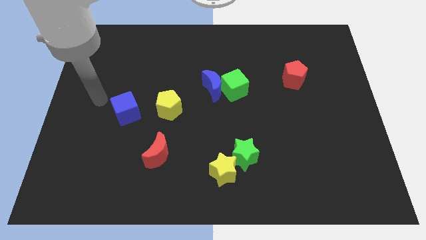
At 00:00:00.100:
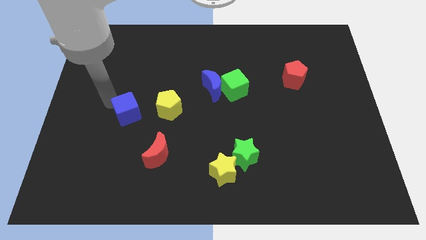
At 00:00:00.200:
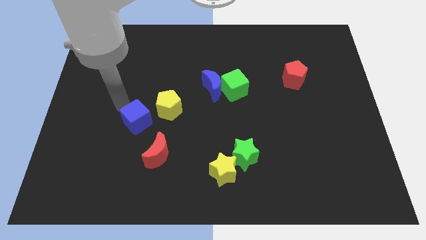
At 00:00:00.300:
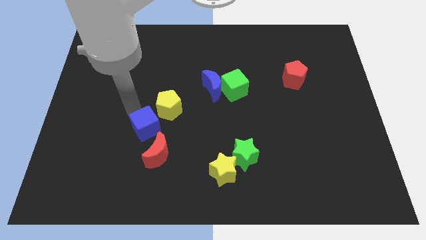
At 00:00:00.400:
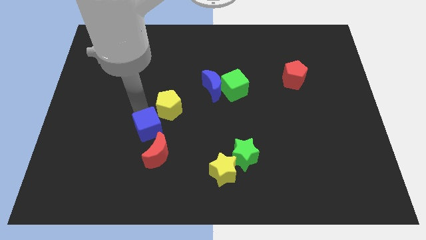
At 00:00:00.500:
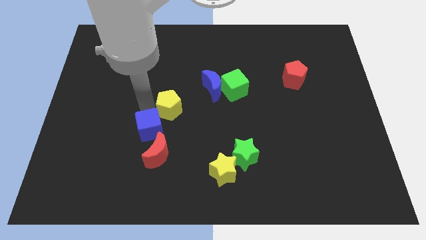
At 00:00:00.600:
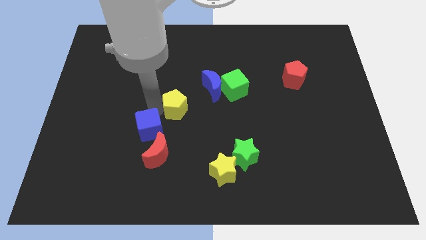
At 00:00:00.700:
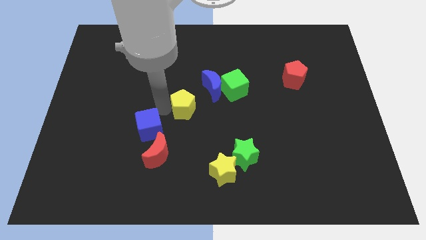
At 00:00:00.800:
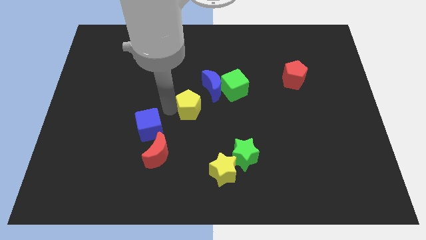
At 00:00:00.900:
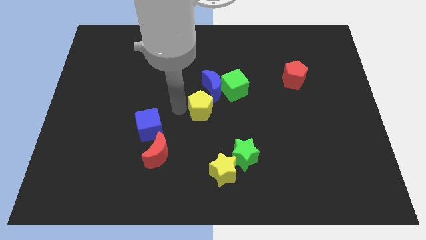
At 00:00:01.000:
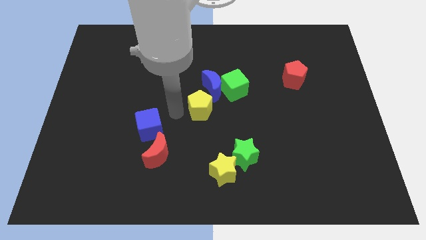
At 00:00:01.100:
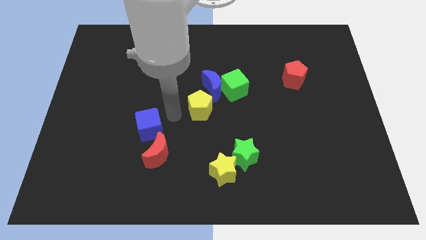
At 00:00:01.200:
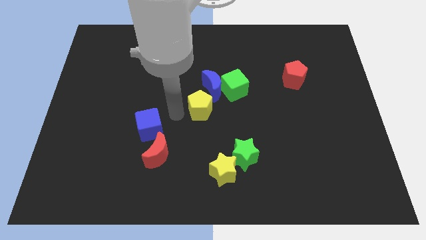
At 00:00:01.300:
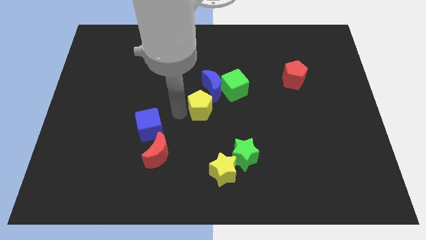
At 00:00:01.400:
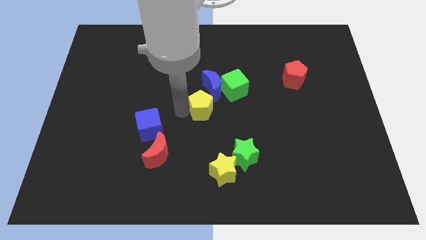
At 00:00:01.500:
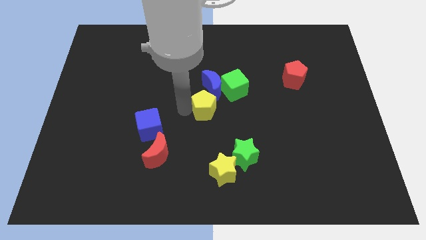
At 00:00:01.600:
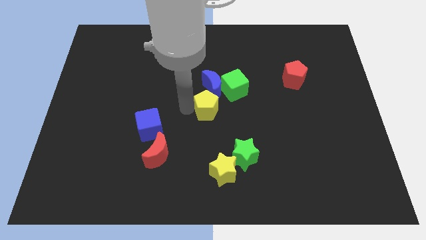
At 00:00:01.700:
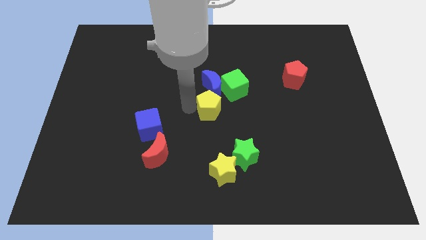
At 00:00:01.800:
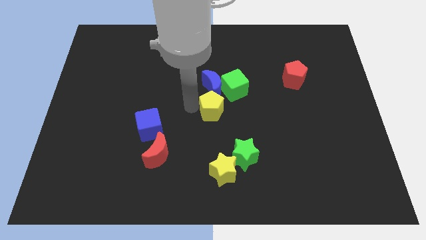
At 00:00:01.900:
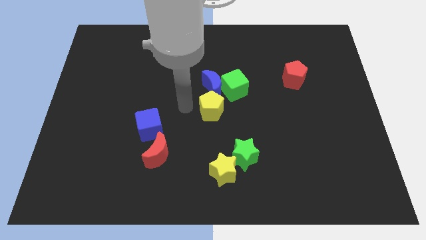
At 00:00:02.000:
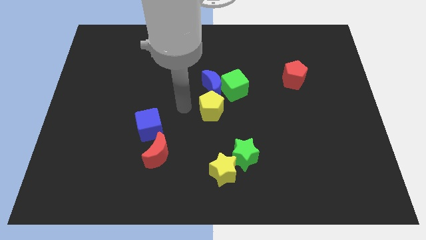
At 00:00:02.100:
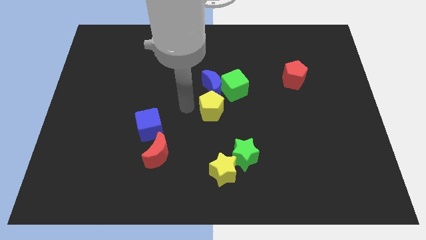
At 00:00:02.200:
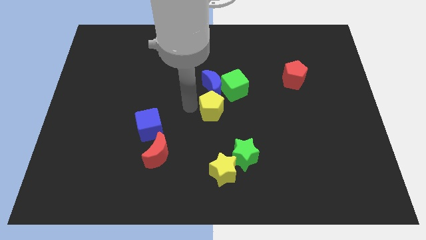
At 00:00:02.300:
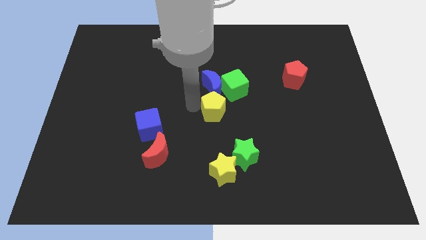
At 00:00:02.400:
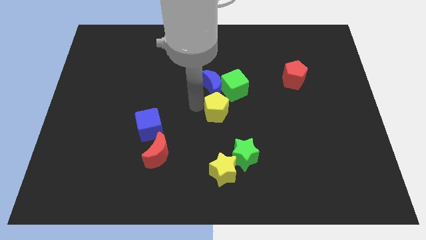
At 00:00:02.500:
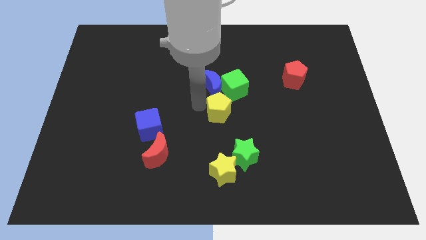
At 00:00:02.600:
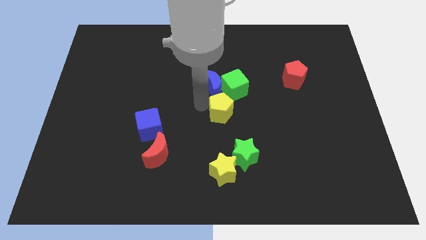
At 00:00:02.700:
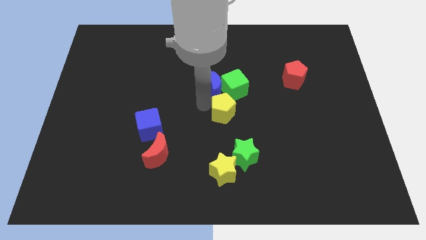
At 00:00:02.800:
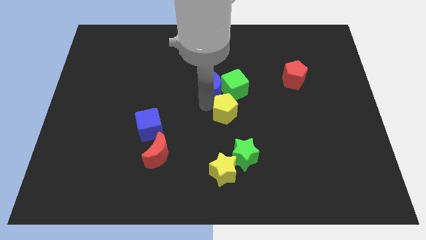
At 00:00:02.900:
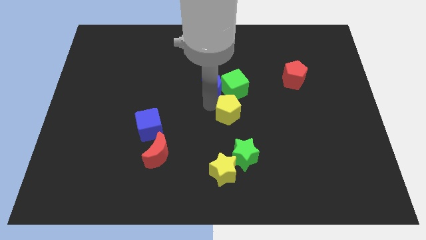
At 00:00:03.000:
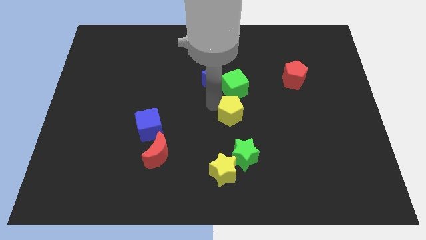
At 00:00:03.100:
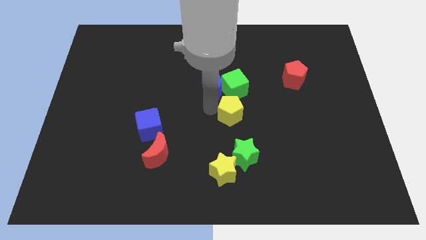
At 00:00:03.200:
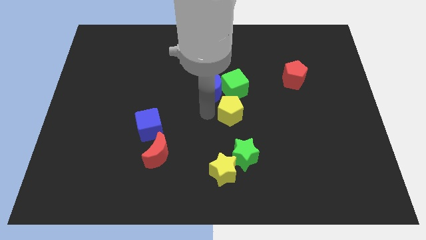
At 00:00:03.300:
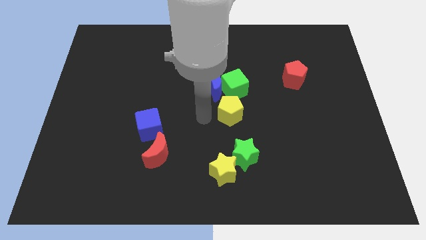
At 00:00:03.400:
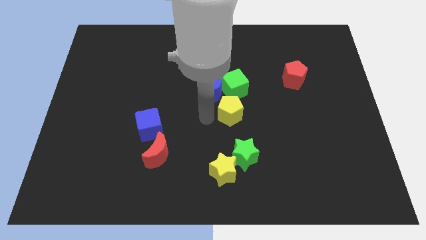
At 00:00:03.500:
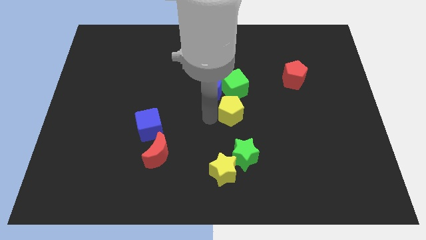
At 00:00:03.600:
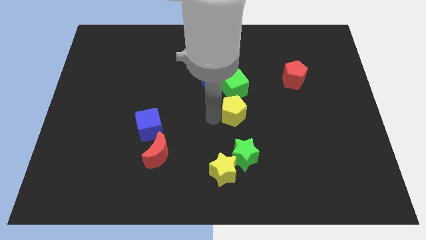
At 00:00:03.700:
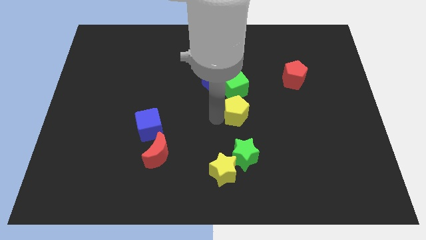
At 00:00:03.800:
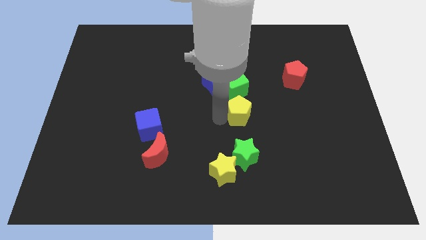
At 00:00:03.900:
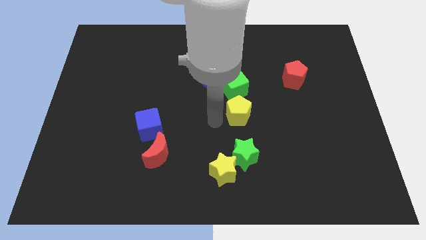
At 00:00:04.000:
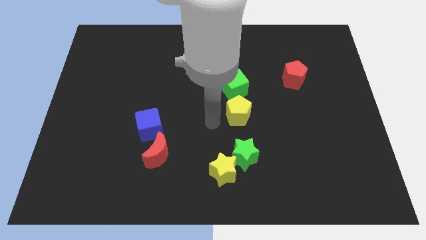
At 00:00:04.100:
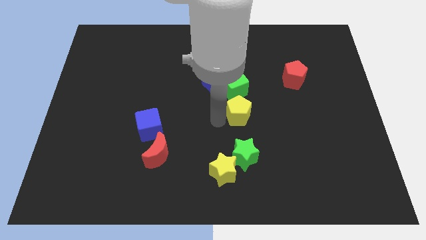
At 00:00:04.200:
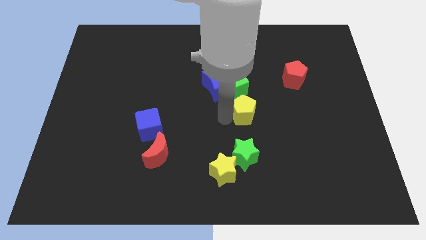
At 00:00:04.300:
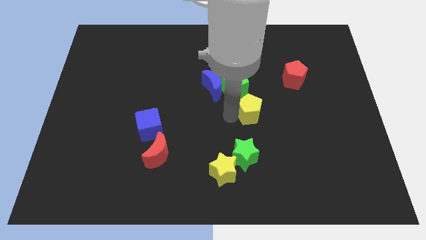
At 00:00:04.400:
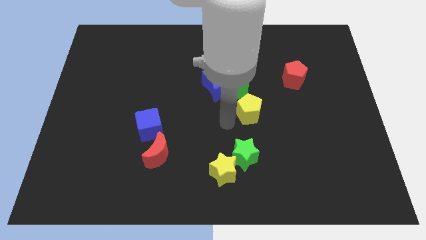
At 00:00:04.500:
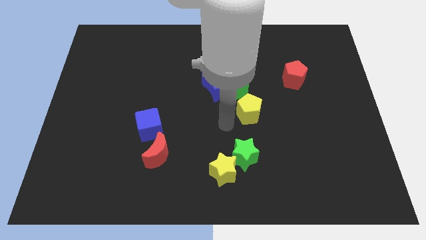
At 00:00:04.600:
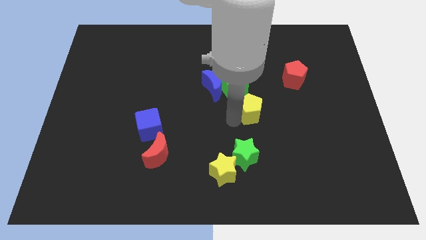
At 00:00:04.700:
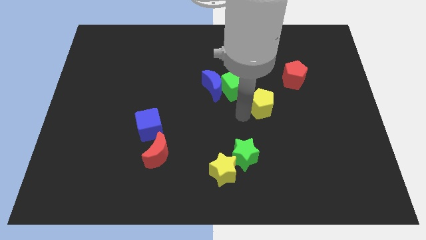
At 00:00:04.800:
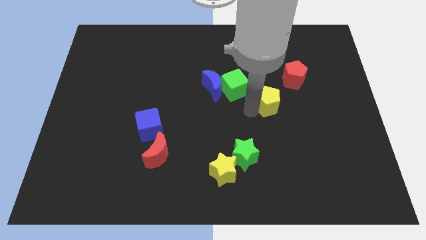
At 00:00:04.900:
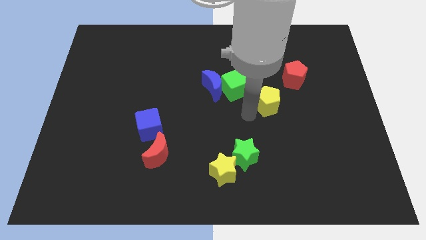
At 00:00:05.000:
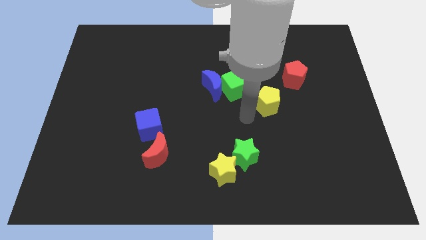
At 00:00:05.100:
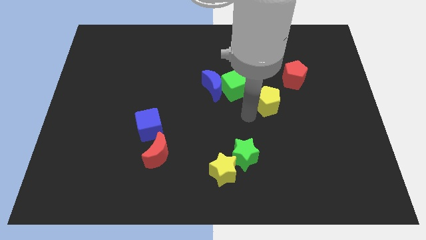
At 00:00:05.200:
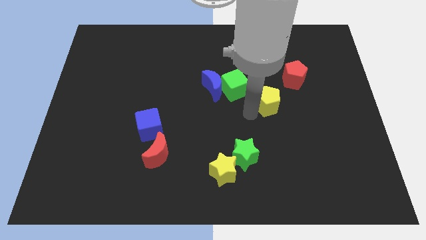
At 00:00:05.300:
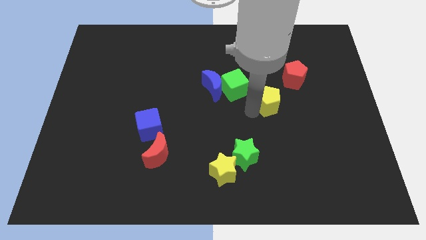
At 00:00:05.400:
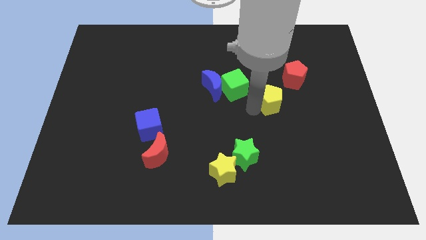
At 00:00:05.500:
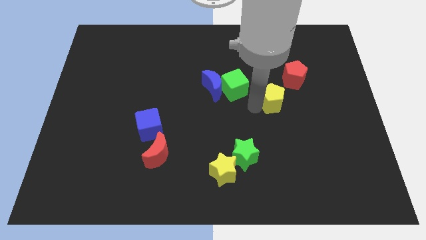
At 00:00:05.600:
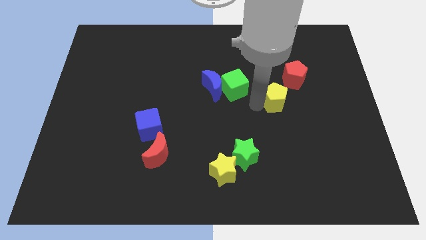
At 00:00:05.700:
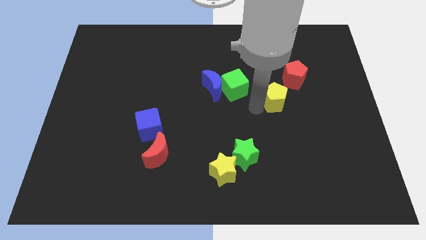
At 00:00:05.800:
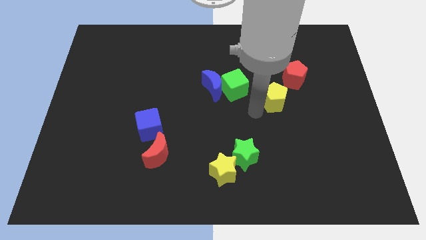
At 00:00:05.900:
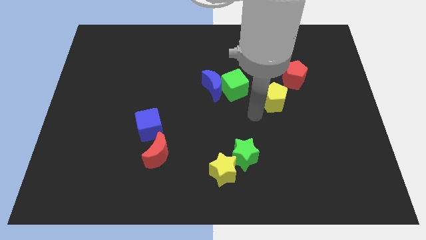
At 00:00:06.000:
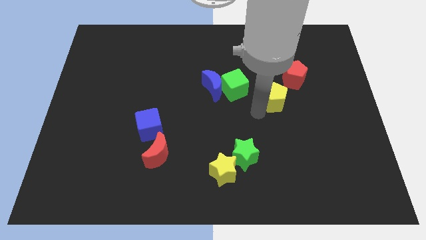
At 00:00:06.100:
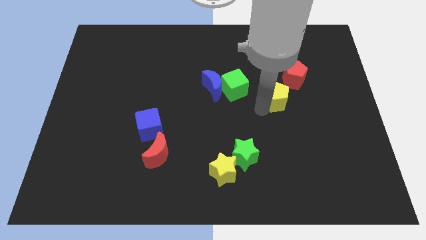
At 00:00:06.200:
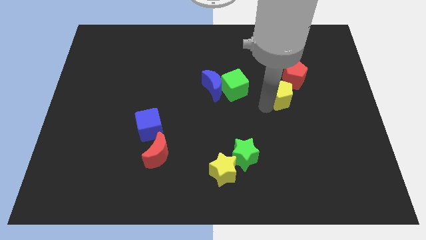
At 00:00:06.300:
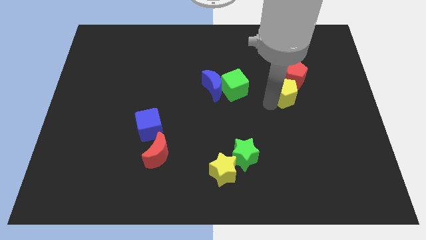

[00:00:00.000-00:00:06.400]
put the yellow pentagon next to the red pentagon

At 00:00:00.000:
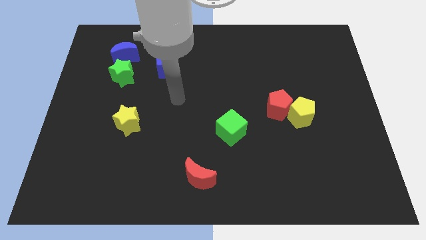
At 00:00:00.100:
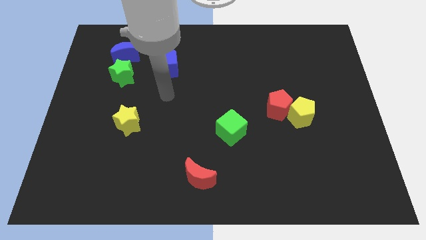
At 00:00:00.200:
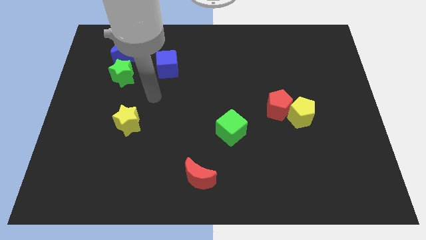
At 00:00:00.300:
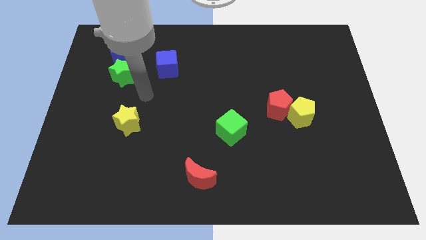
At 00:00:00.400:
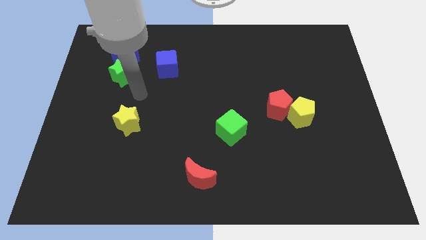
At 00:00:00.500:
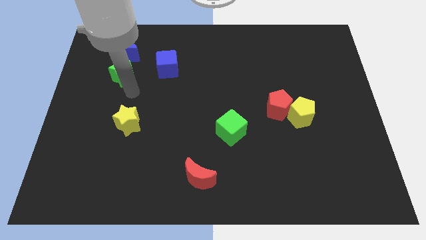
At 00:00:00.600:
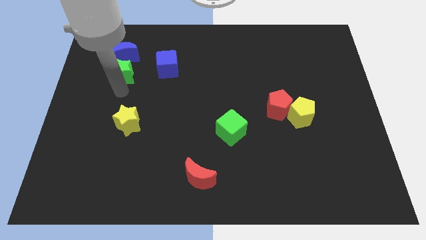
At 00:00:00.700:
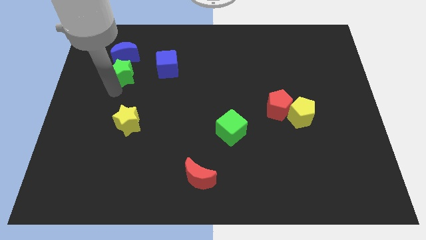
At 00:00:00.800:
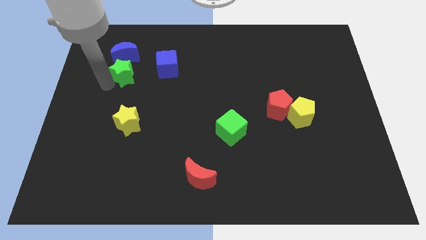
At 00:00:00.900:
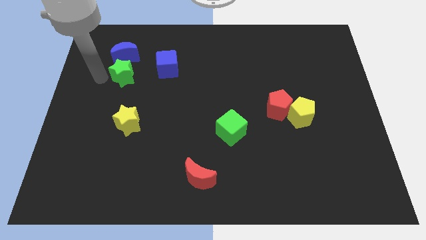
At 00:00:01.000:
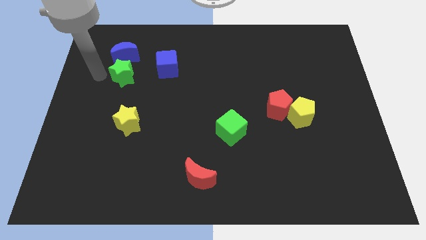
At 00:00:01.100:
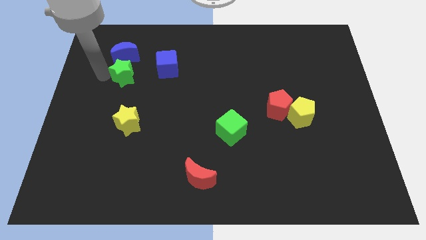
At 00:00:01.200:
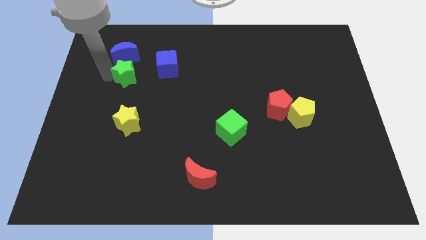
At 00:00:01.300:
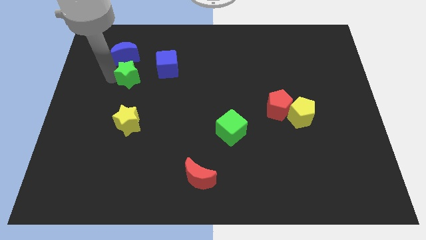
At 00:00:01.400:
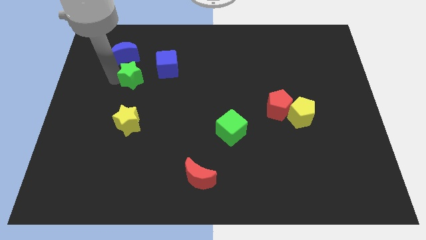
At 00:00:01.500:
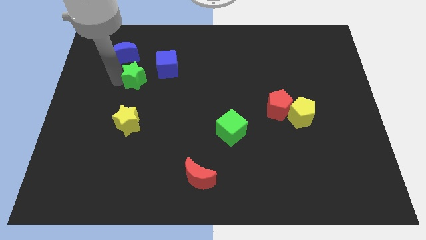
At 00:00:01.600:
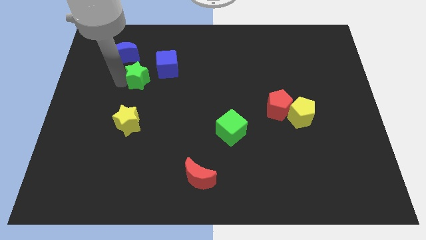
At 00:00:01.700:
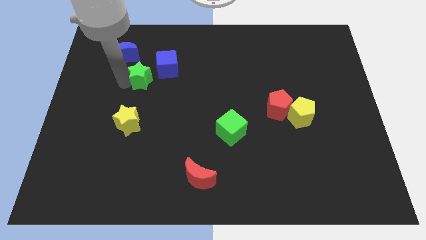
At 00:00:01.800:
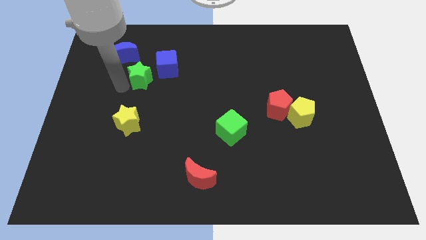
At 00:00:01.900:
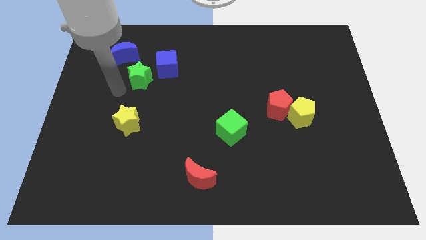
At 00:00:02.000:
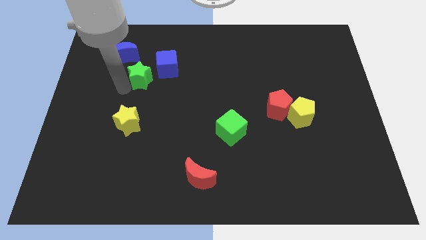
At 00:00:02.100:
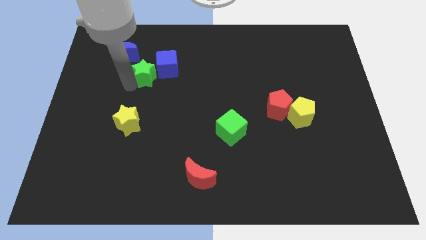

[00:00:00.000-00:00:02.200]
push the green star close to the blue cube
